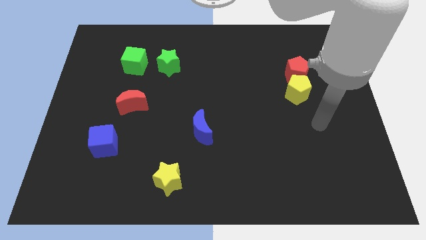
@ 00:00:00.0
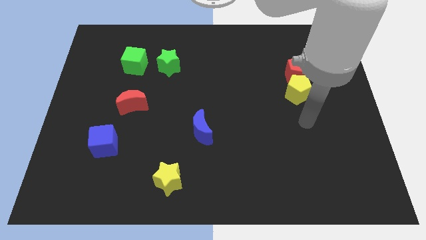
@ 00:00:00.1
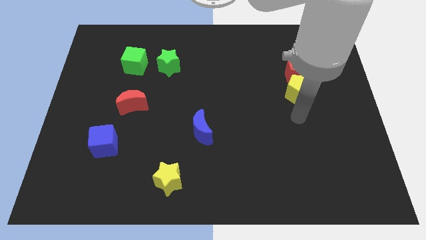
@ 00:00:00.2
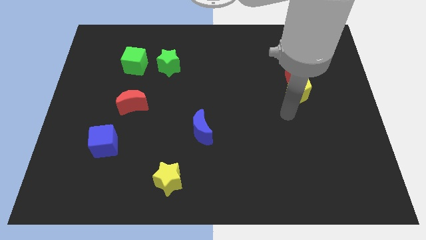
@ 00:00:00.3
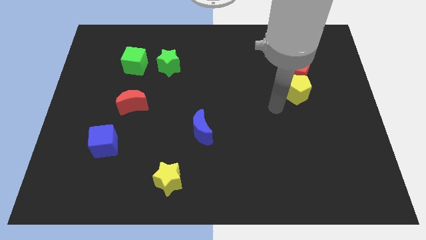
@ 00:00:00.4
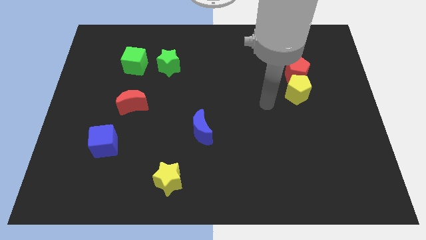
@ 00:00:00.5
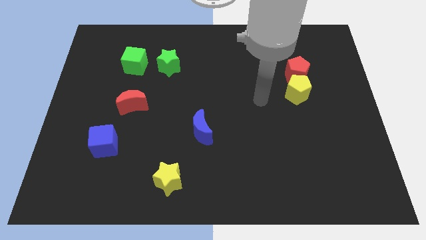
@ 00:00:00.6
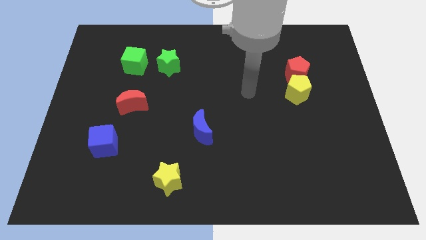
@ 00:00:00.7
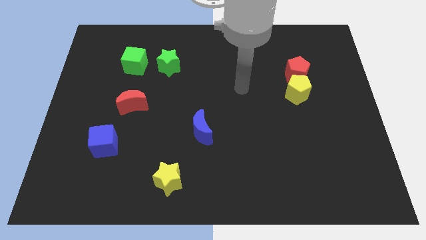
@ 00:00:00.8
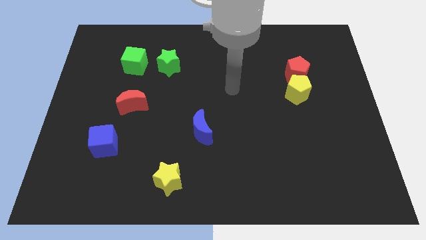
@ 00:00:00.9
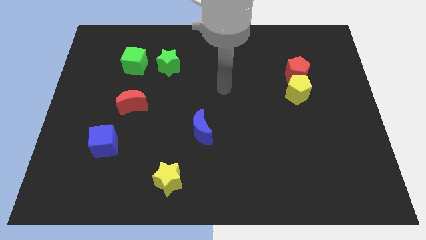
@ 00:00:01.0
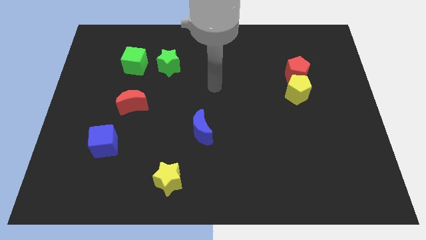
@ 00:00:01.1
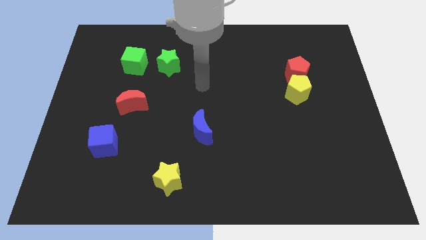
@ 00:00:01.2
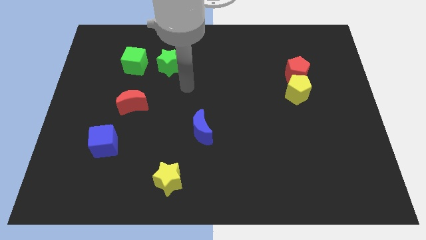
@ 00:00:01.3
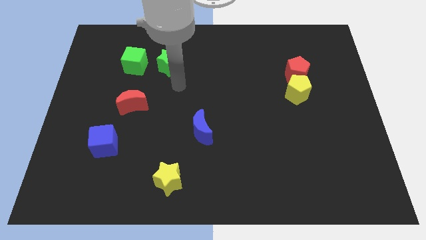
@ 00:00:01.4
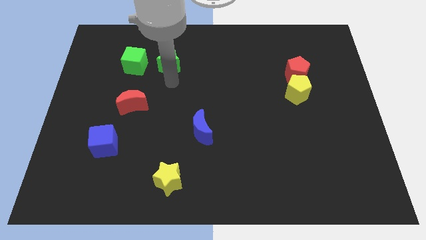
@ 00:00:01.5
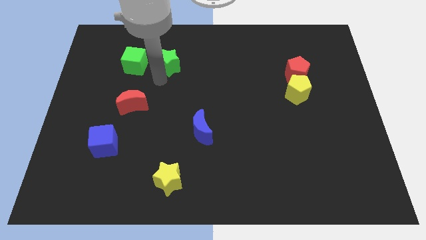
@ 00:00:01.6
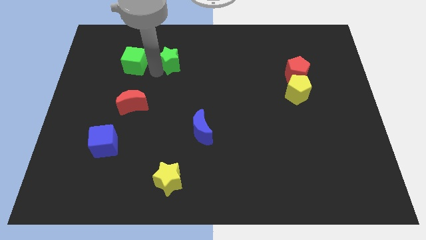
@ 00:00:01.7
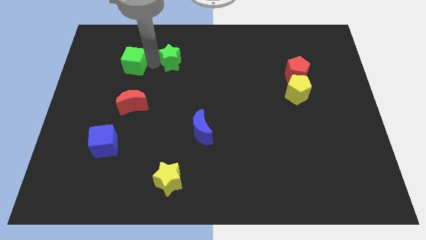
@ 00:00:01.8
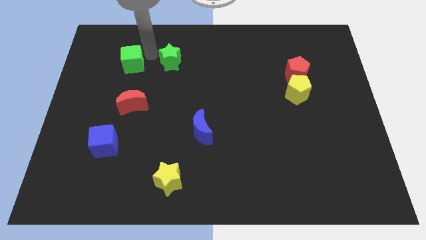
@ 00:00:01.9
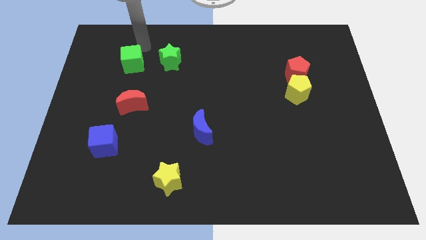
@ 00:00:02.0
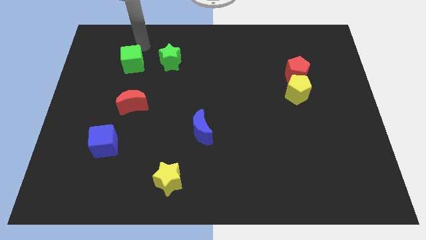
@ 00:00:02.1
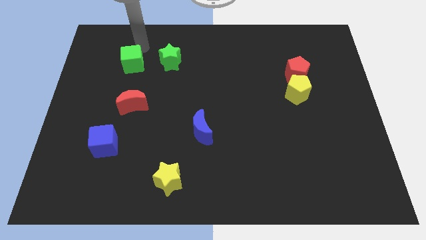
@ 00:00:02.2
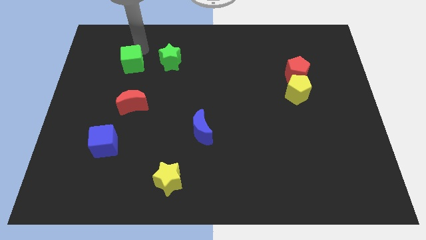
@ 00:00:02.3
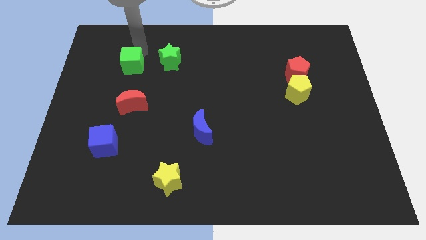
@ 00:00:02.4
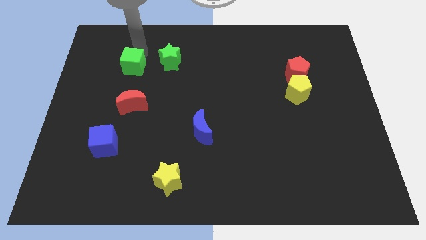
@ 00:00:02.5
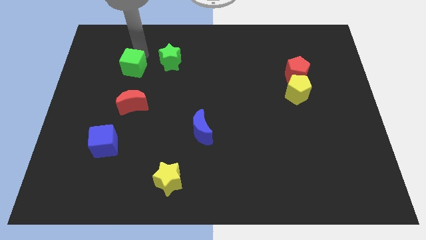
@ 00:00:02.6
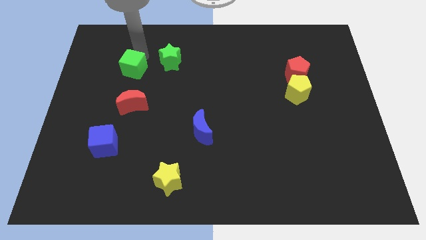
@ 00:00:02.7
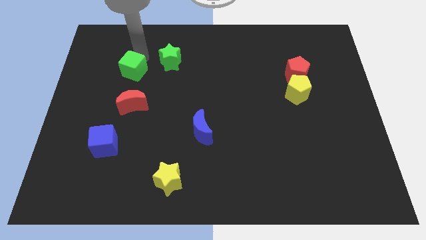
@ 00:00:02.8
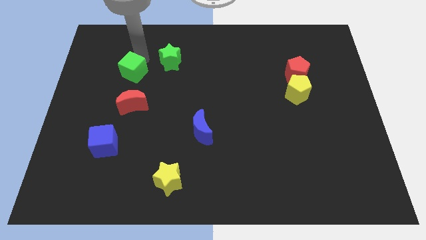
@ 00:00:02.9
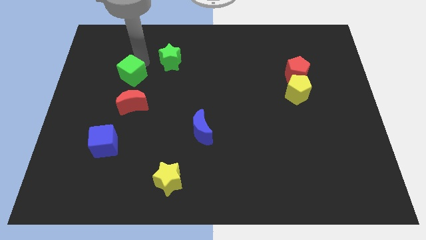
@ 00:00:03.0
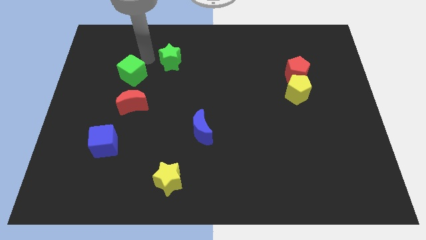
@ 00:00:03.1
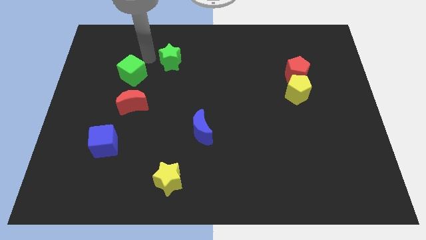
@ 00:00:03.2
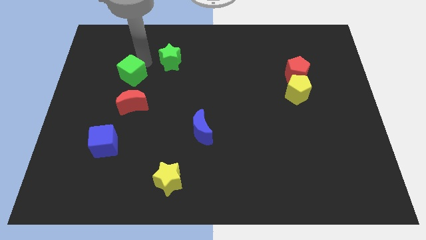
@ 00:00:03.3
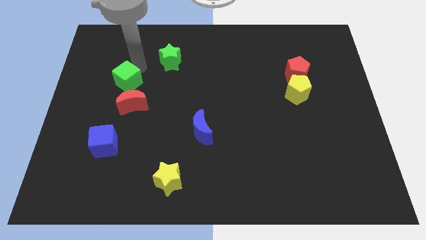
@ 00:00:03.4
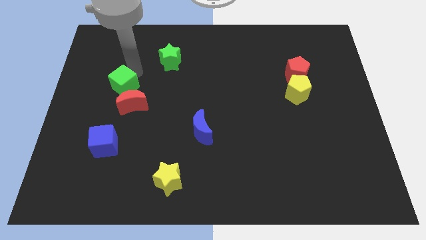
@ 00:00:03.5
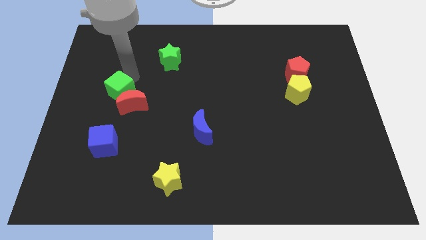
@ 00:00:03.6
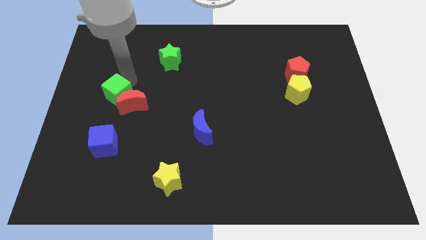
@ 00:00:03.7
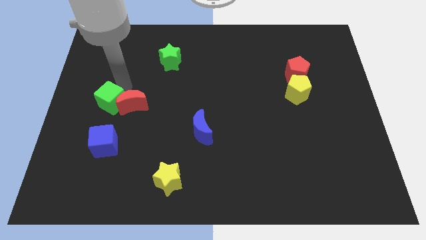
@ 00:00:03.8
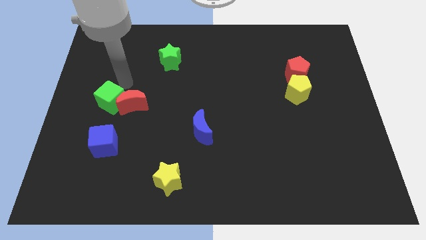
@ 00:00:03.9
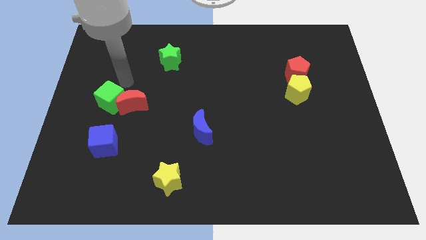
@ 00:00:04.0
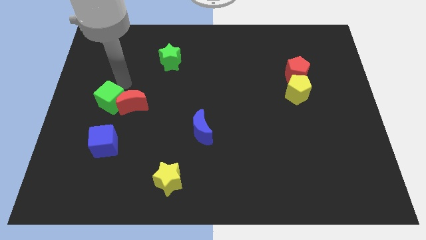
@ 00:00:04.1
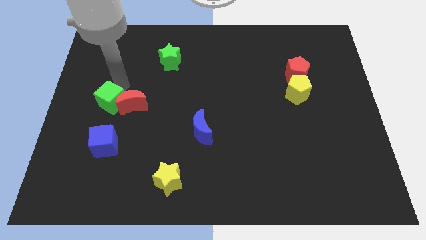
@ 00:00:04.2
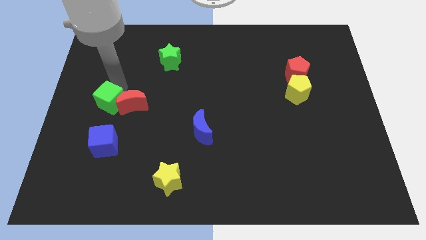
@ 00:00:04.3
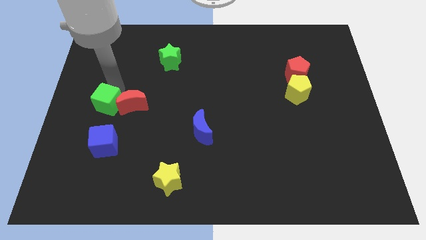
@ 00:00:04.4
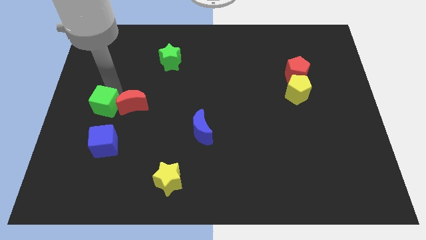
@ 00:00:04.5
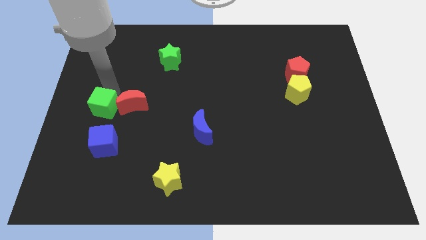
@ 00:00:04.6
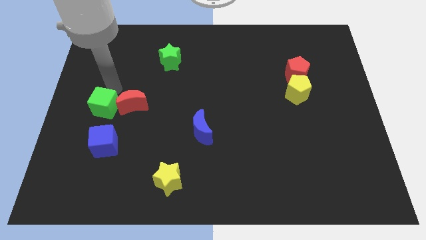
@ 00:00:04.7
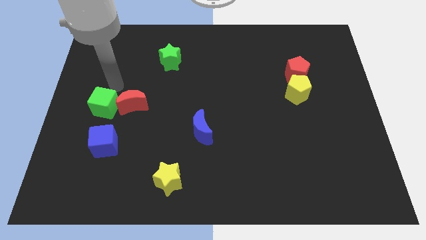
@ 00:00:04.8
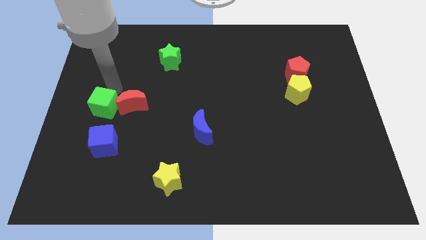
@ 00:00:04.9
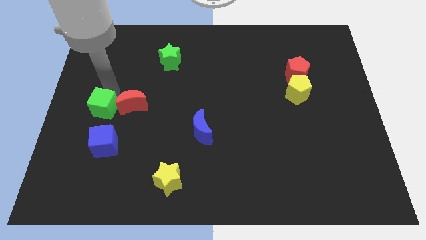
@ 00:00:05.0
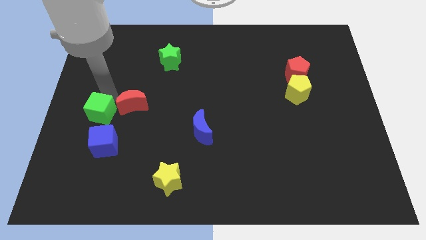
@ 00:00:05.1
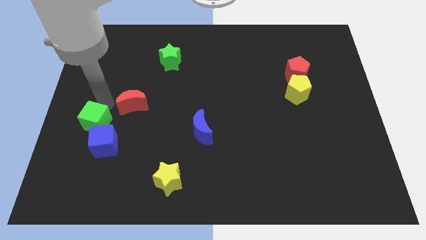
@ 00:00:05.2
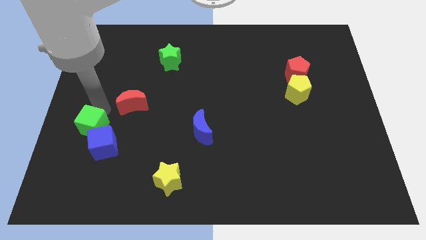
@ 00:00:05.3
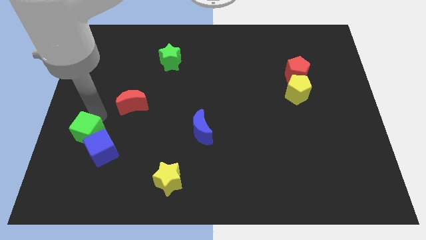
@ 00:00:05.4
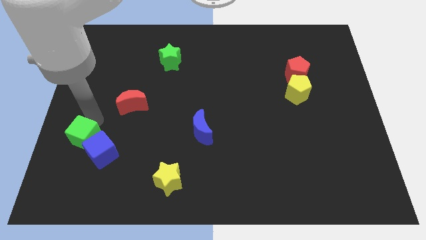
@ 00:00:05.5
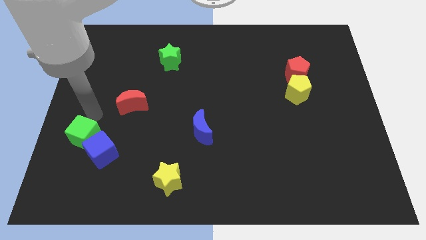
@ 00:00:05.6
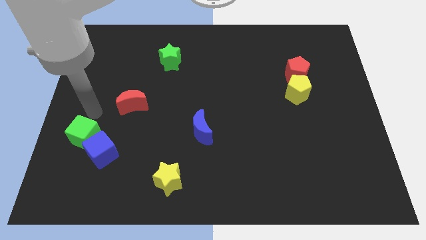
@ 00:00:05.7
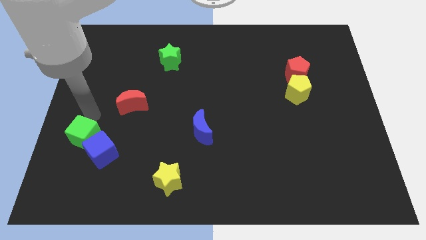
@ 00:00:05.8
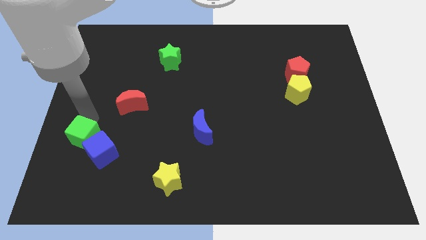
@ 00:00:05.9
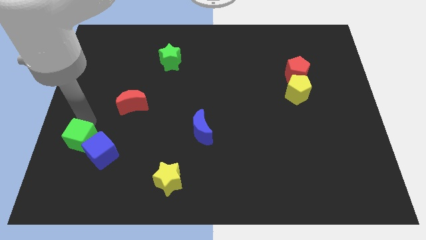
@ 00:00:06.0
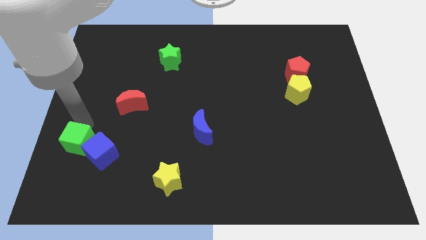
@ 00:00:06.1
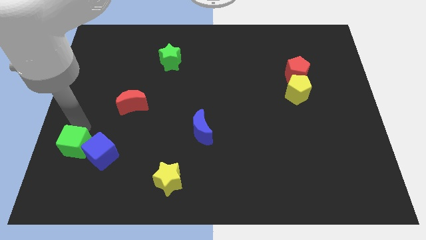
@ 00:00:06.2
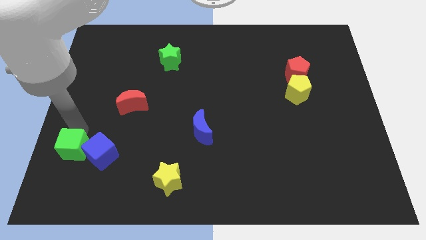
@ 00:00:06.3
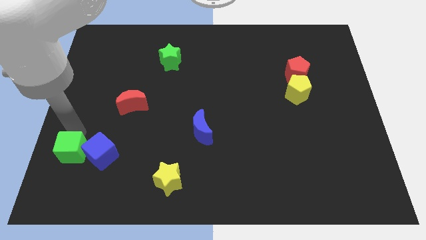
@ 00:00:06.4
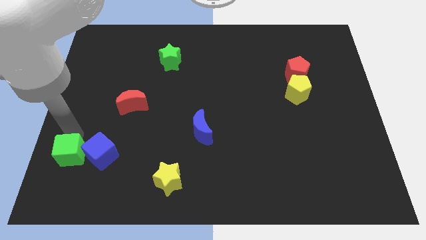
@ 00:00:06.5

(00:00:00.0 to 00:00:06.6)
move the green cube diagonally down and to the left of the blue cube

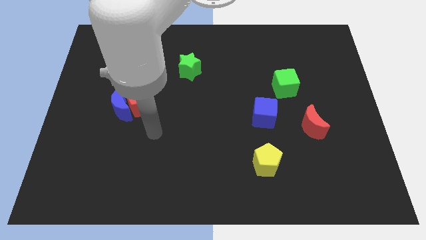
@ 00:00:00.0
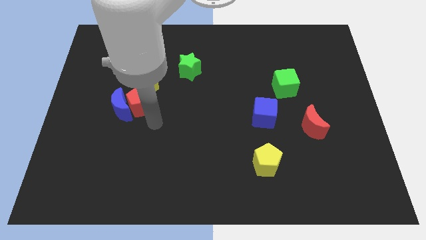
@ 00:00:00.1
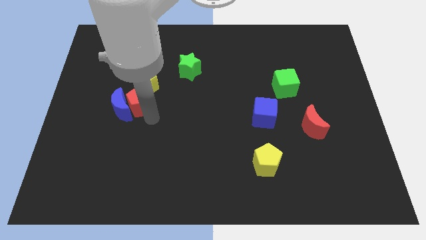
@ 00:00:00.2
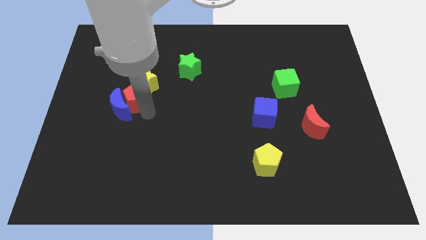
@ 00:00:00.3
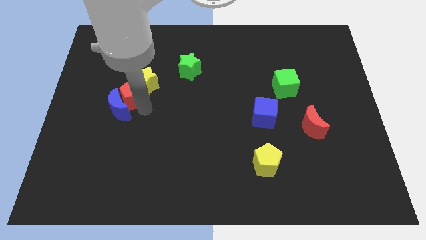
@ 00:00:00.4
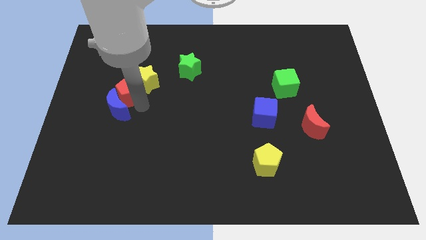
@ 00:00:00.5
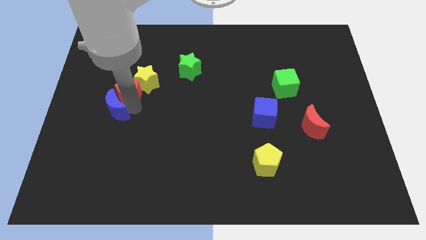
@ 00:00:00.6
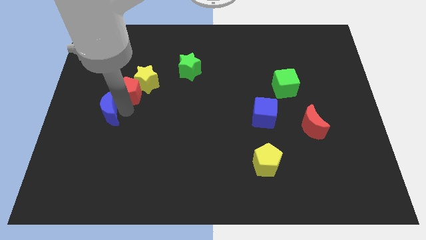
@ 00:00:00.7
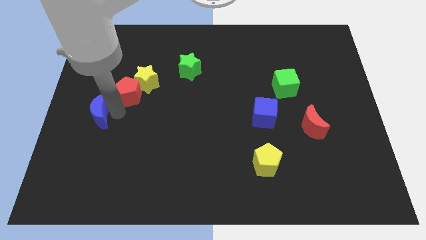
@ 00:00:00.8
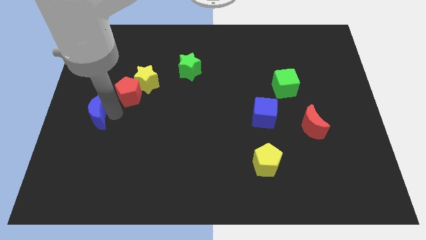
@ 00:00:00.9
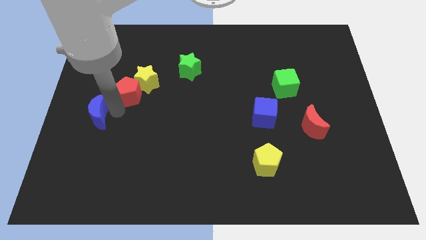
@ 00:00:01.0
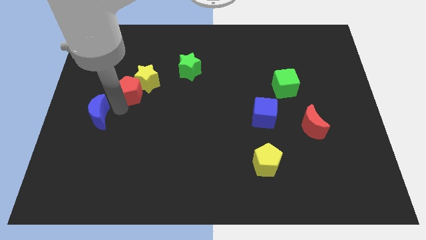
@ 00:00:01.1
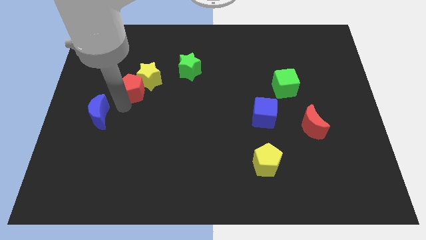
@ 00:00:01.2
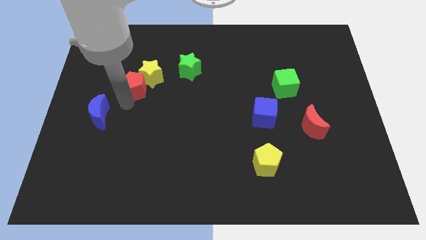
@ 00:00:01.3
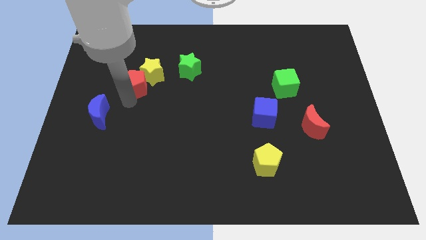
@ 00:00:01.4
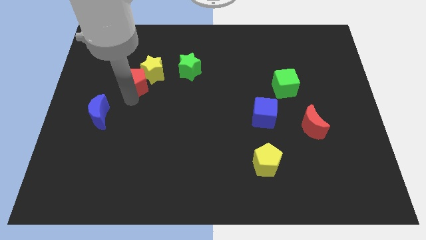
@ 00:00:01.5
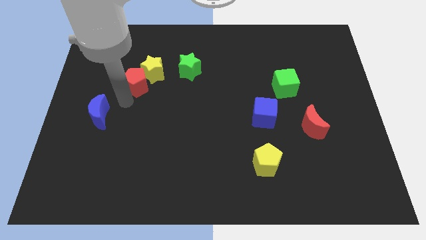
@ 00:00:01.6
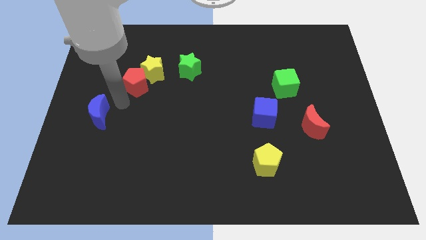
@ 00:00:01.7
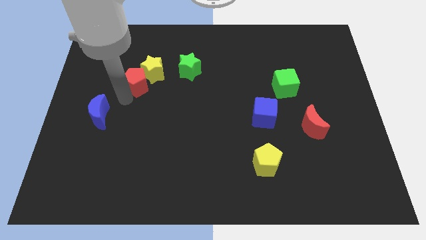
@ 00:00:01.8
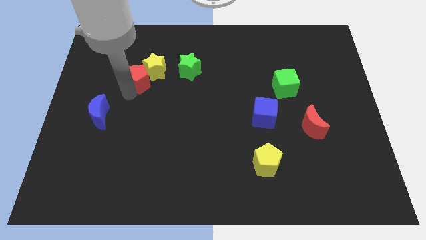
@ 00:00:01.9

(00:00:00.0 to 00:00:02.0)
push the red pentagon left of the green star
